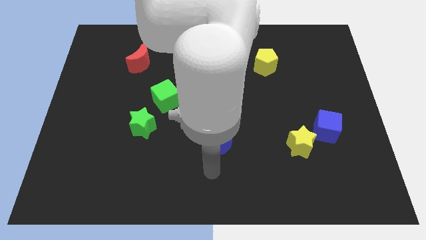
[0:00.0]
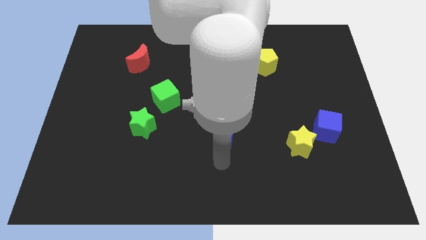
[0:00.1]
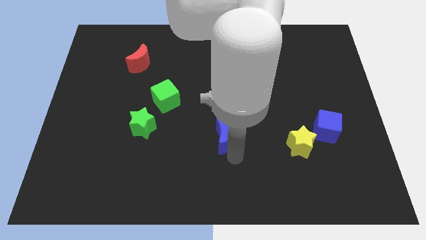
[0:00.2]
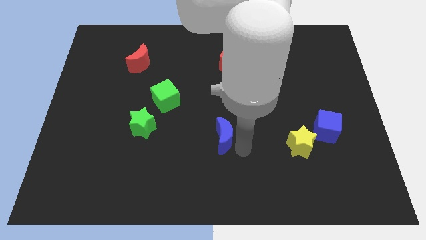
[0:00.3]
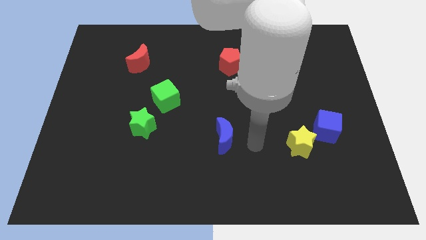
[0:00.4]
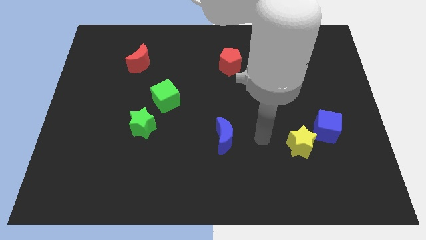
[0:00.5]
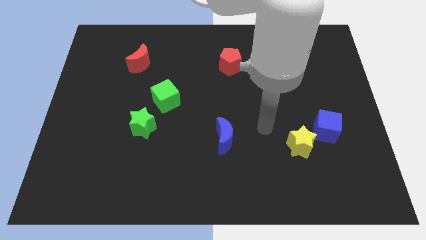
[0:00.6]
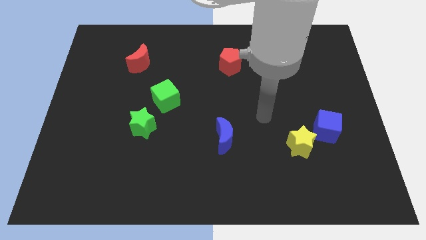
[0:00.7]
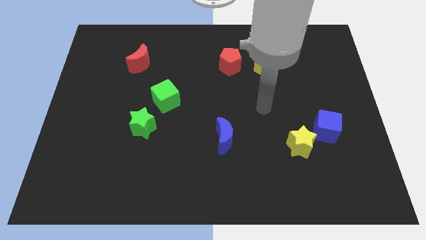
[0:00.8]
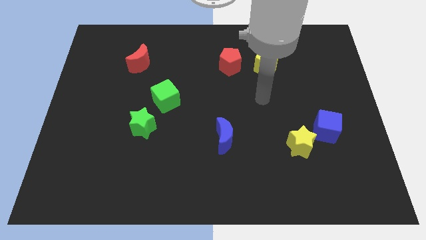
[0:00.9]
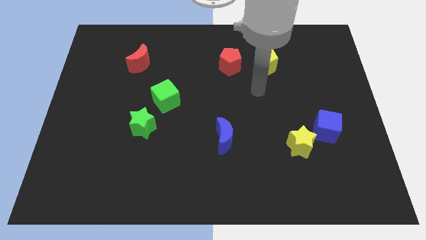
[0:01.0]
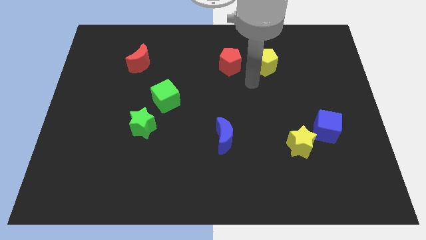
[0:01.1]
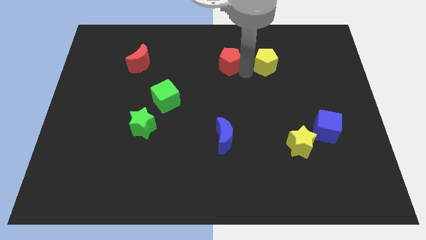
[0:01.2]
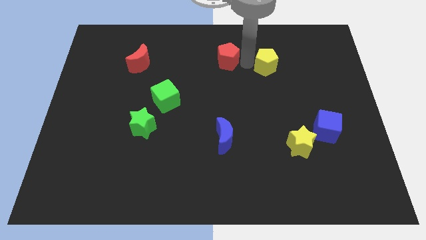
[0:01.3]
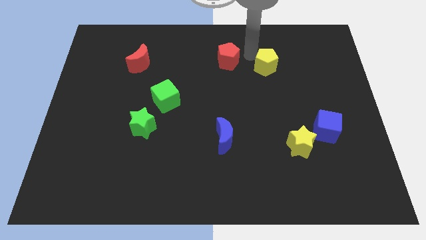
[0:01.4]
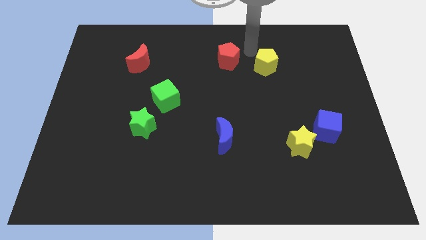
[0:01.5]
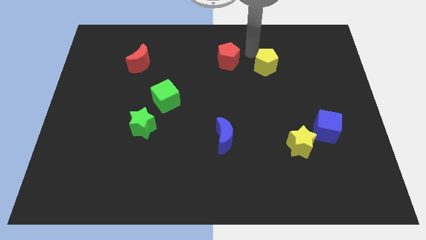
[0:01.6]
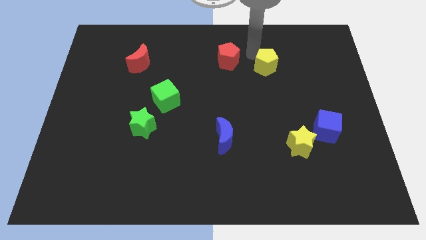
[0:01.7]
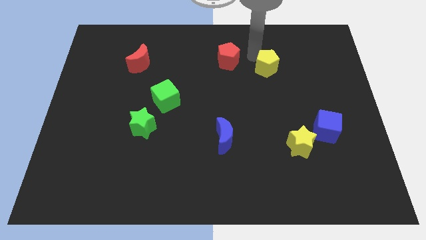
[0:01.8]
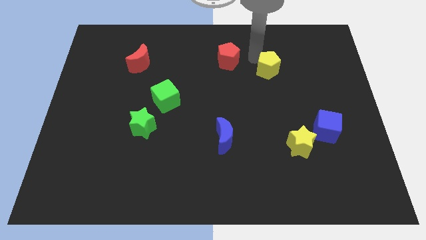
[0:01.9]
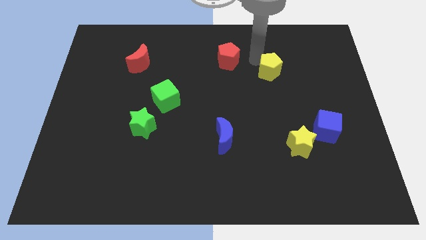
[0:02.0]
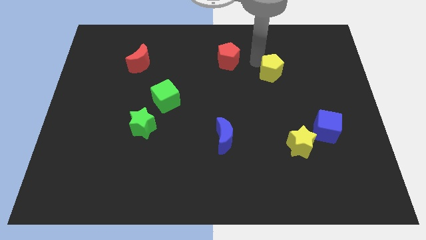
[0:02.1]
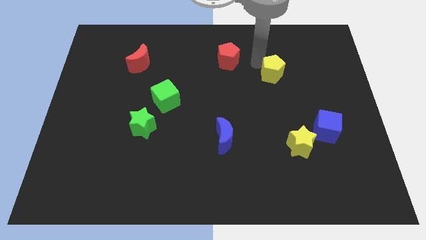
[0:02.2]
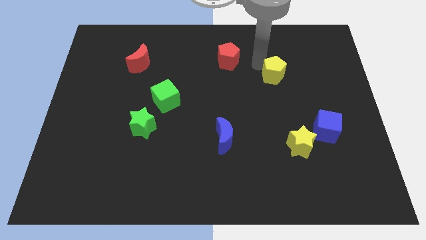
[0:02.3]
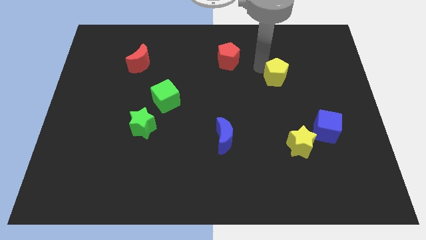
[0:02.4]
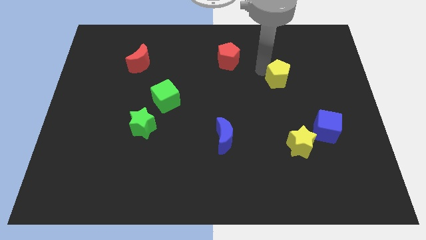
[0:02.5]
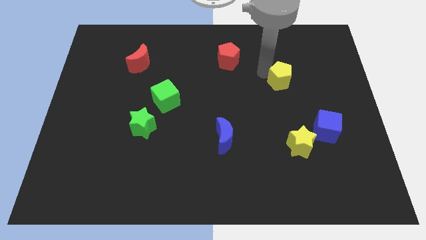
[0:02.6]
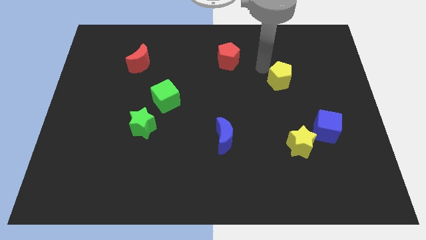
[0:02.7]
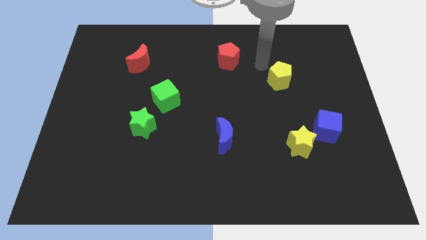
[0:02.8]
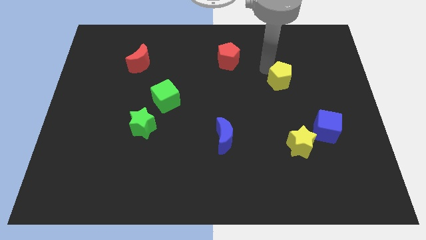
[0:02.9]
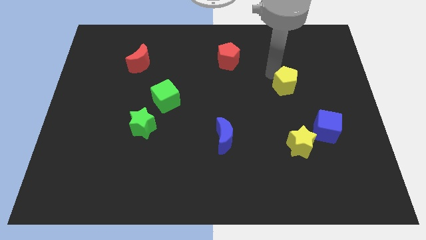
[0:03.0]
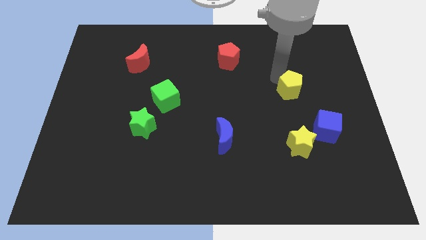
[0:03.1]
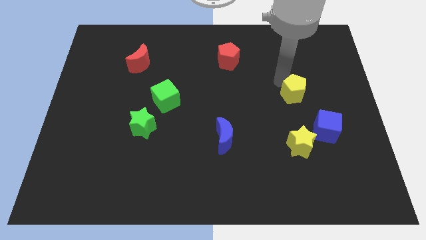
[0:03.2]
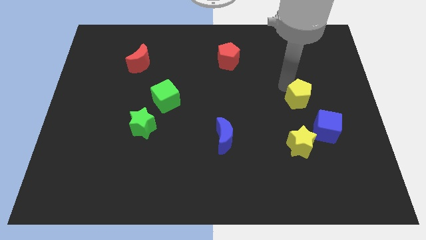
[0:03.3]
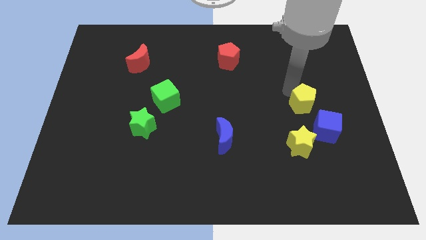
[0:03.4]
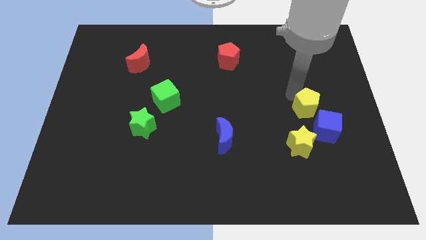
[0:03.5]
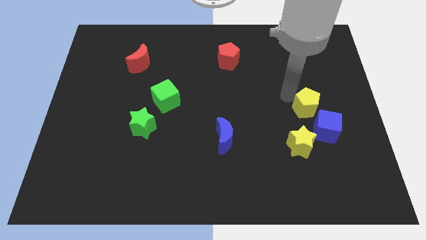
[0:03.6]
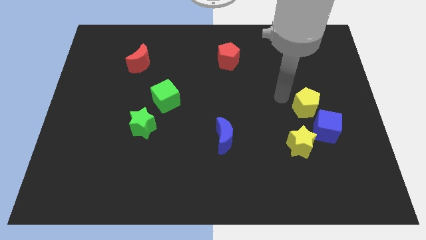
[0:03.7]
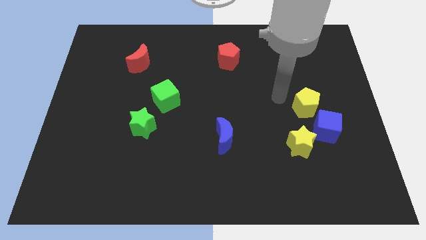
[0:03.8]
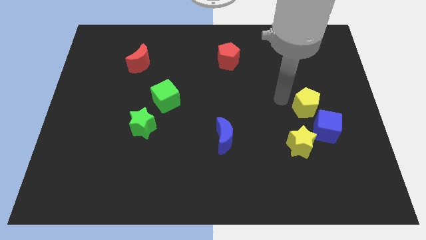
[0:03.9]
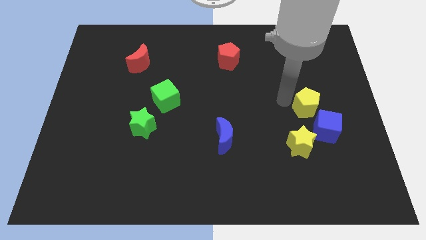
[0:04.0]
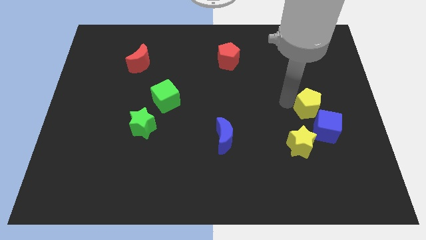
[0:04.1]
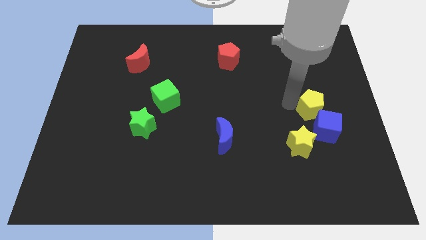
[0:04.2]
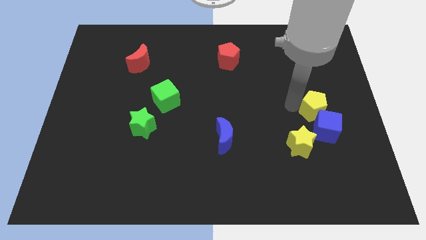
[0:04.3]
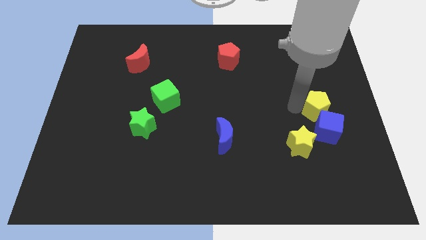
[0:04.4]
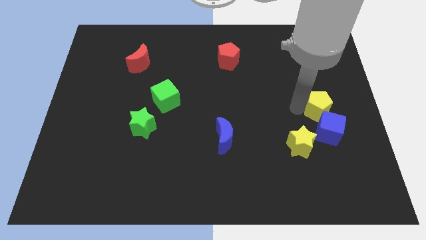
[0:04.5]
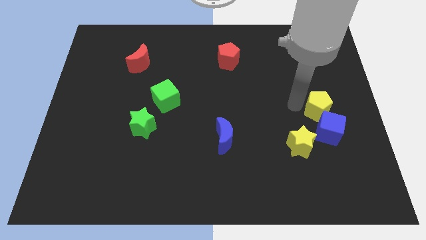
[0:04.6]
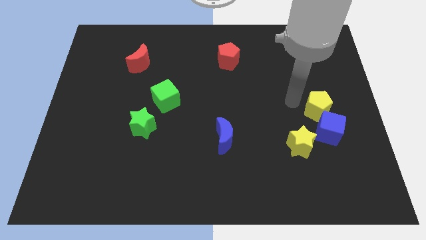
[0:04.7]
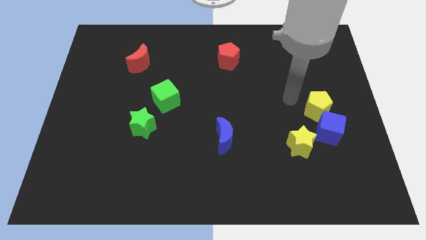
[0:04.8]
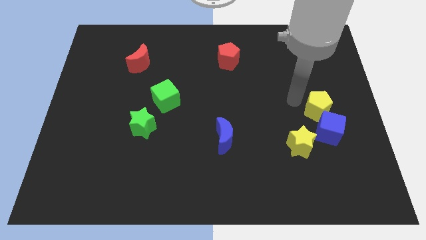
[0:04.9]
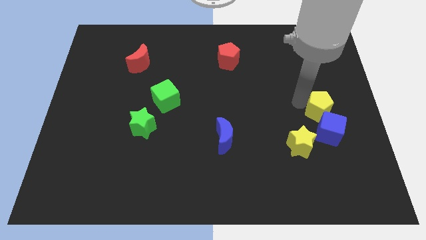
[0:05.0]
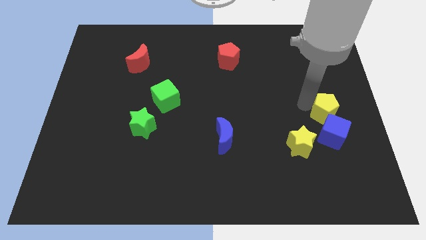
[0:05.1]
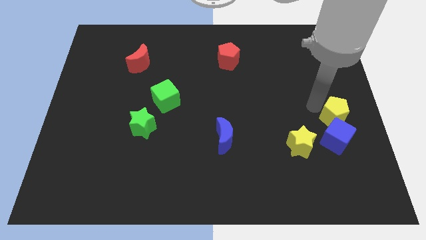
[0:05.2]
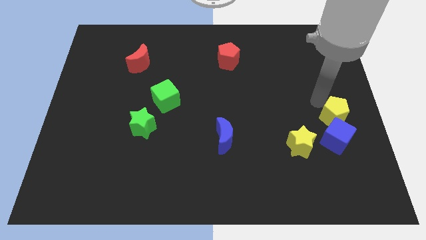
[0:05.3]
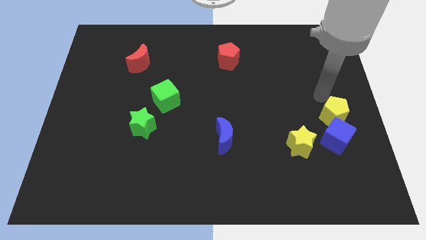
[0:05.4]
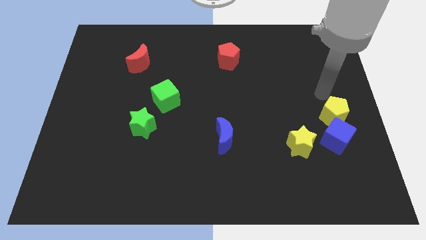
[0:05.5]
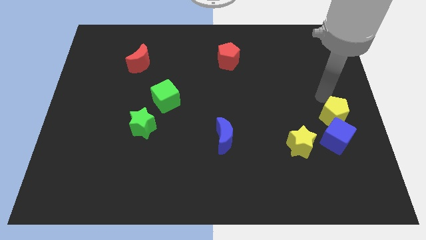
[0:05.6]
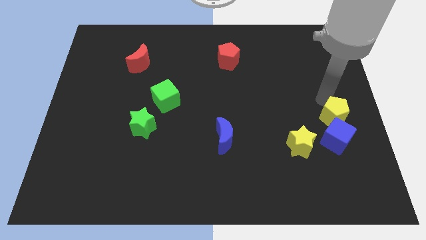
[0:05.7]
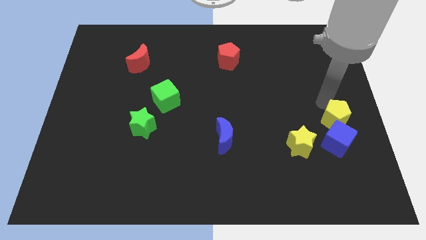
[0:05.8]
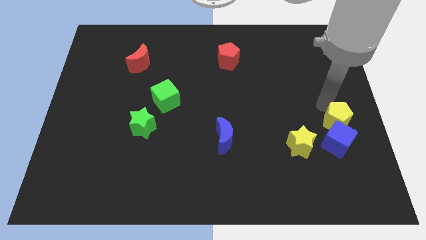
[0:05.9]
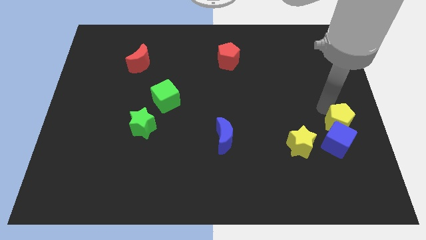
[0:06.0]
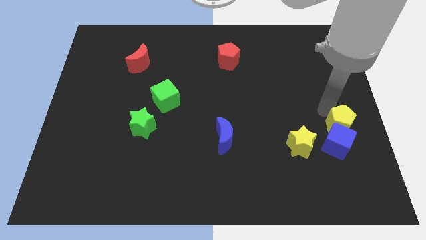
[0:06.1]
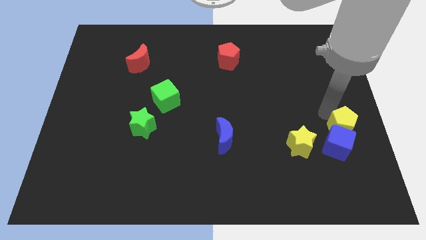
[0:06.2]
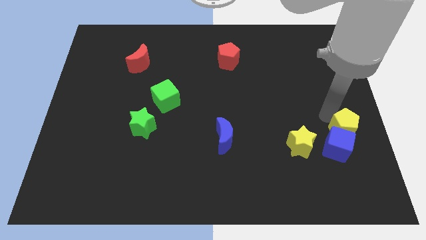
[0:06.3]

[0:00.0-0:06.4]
slide the yellow pentagon right of the yellow star
